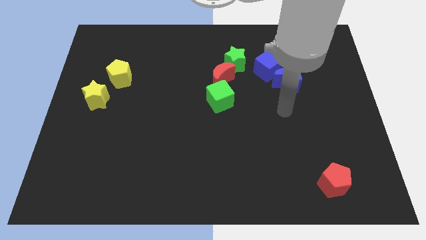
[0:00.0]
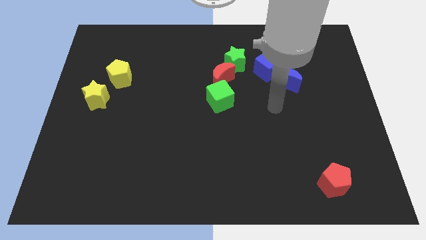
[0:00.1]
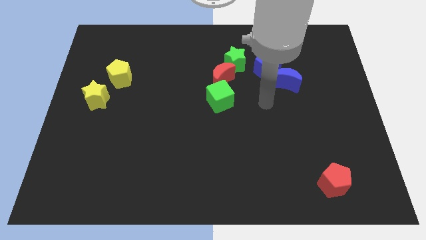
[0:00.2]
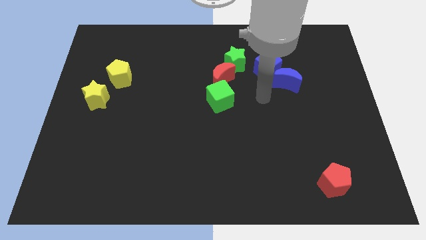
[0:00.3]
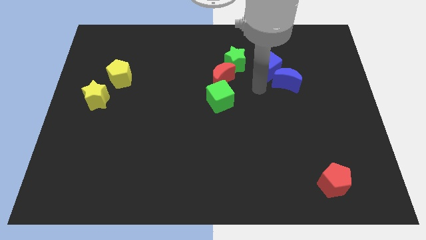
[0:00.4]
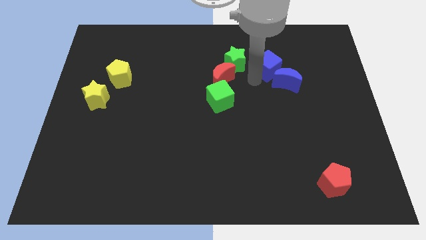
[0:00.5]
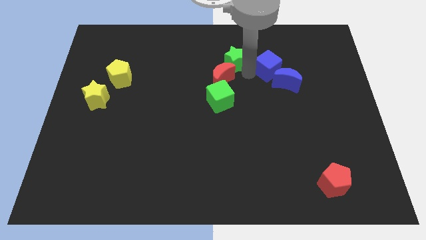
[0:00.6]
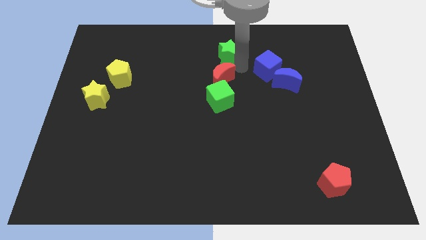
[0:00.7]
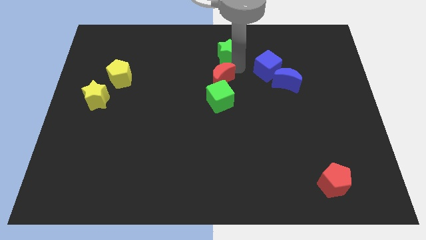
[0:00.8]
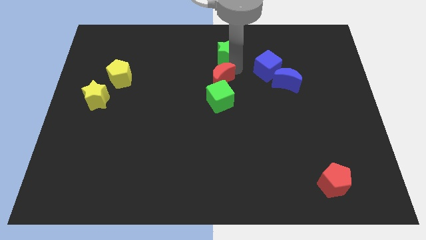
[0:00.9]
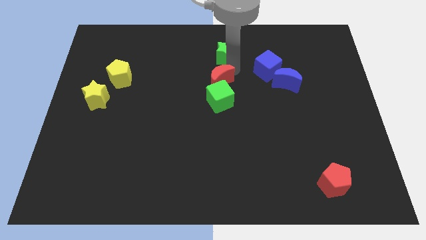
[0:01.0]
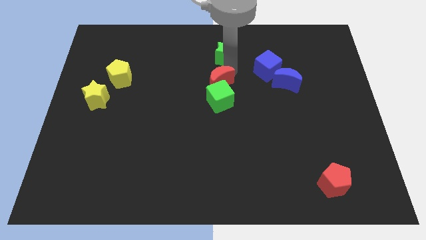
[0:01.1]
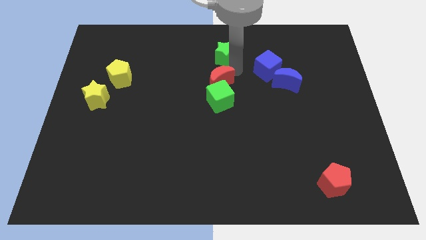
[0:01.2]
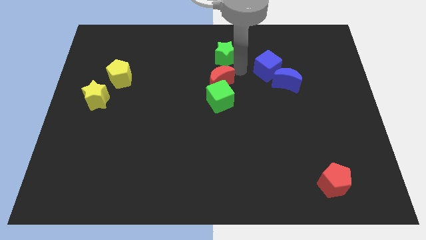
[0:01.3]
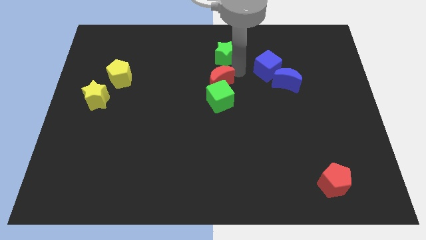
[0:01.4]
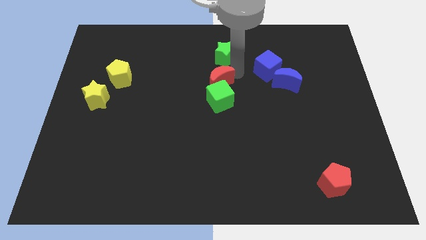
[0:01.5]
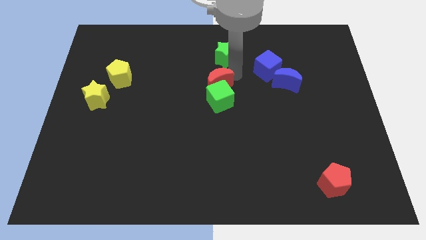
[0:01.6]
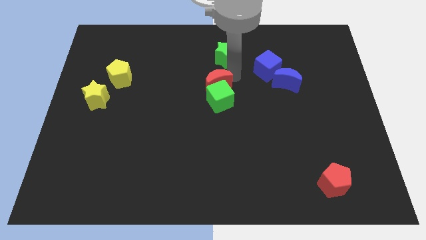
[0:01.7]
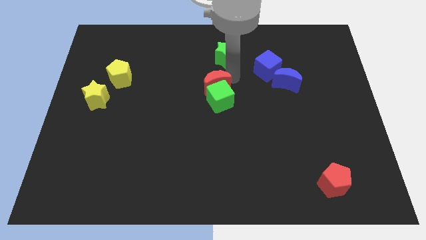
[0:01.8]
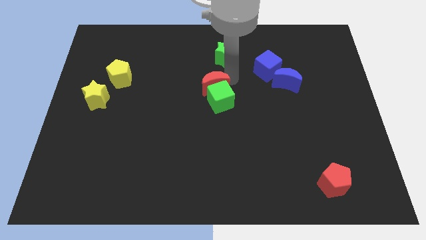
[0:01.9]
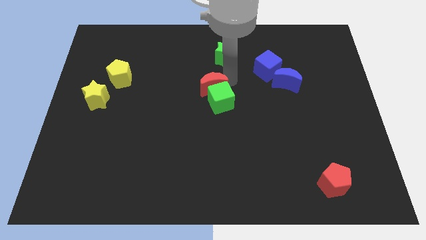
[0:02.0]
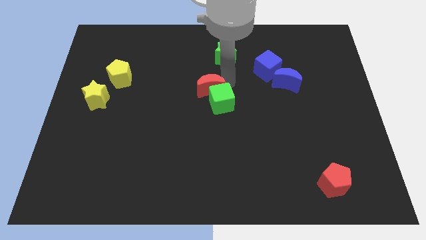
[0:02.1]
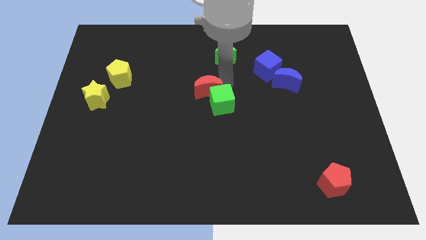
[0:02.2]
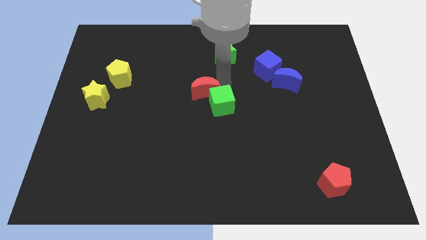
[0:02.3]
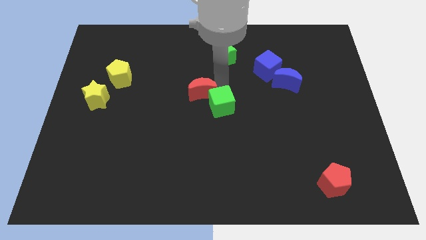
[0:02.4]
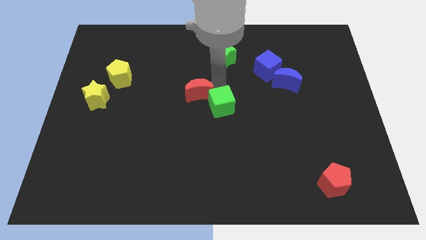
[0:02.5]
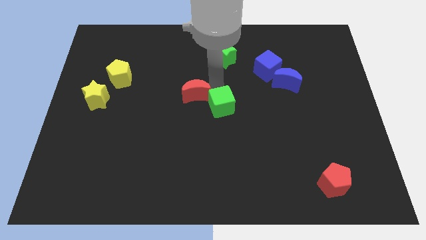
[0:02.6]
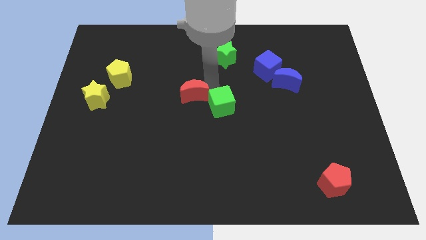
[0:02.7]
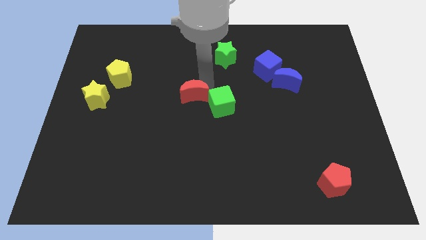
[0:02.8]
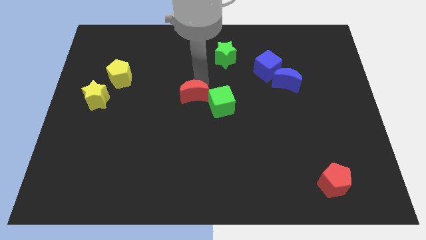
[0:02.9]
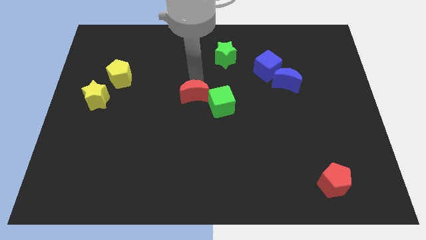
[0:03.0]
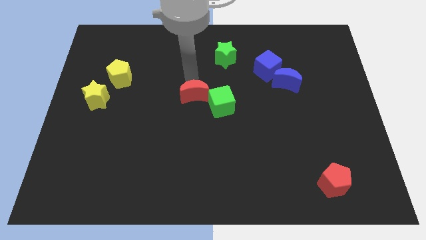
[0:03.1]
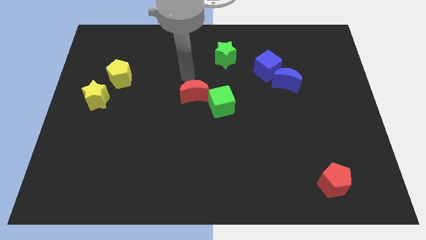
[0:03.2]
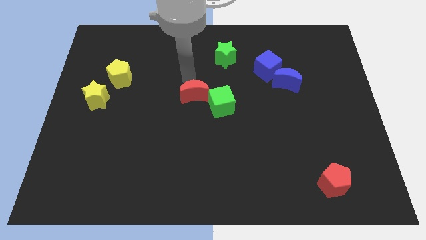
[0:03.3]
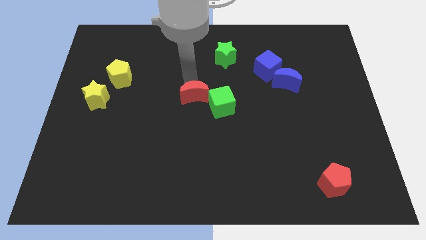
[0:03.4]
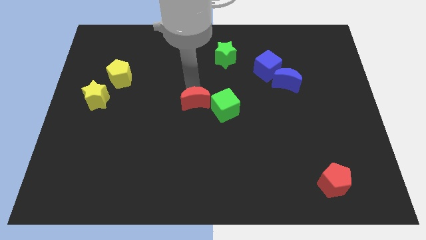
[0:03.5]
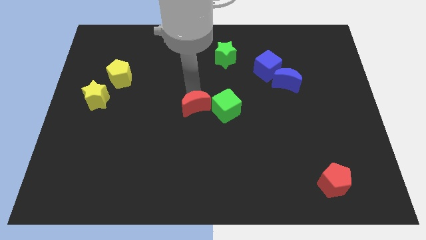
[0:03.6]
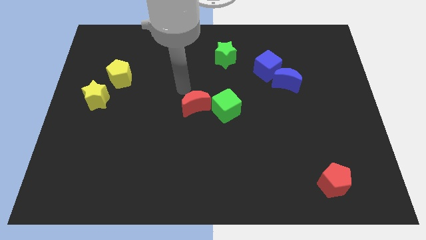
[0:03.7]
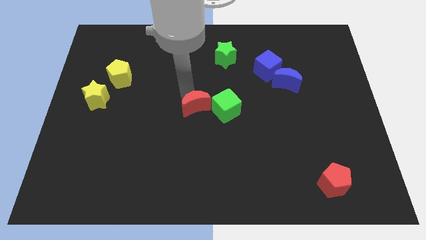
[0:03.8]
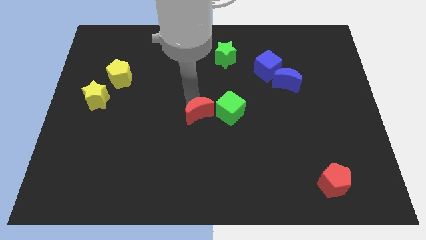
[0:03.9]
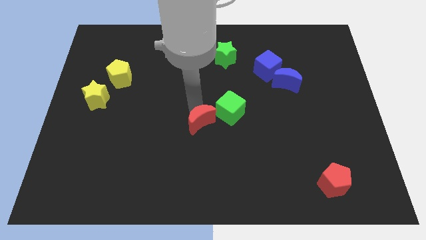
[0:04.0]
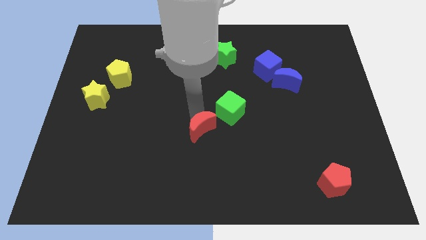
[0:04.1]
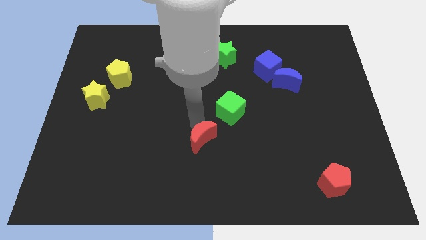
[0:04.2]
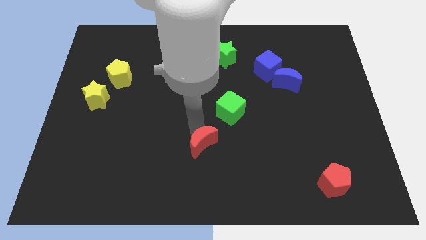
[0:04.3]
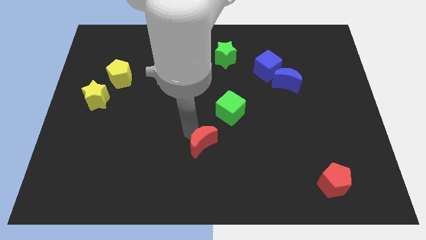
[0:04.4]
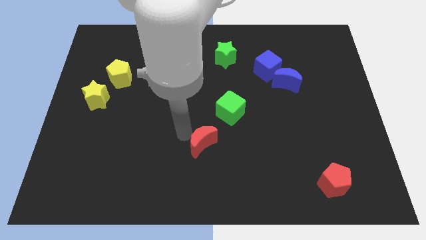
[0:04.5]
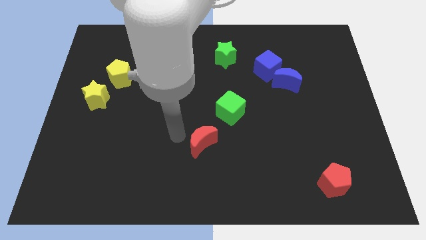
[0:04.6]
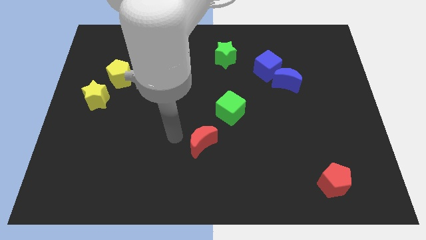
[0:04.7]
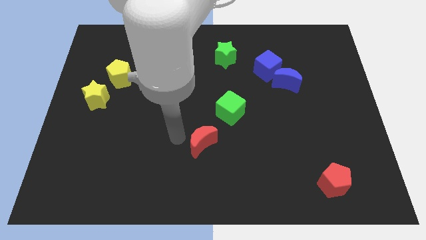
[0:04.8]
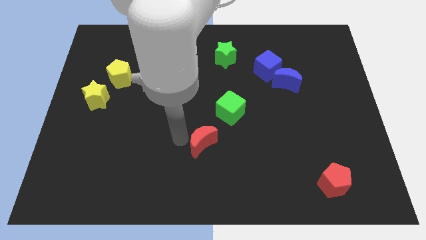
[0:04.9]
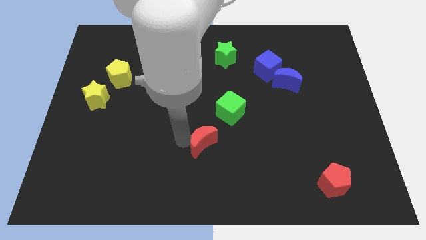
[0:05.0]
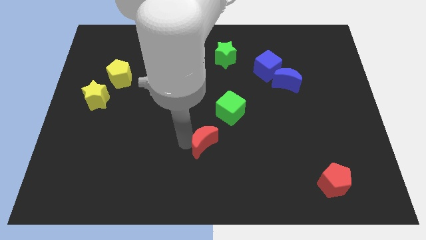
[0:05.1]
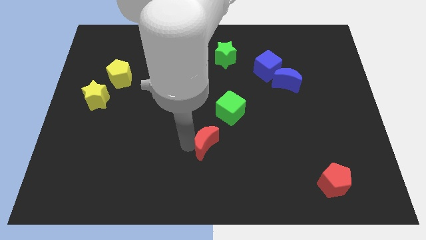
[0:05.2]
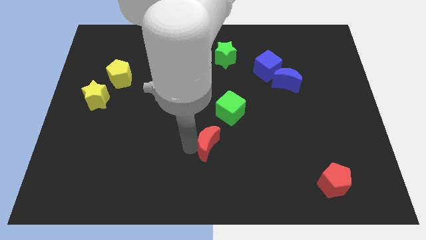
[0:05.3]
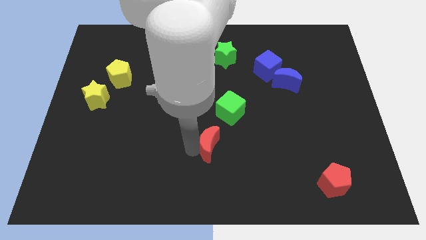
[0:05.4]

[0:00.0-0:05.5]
slide the red moon below the green cube

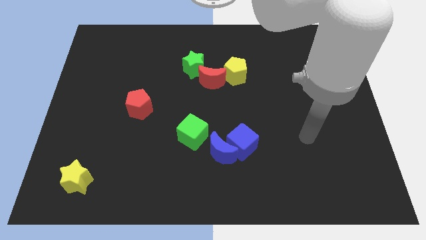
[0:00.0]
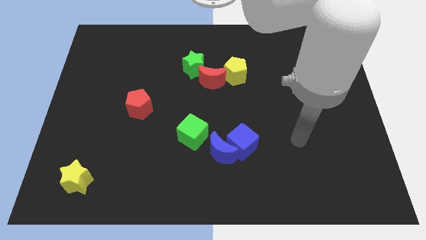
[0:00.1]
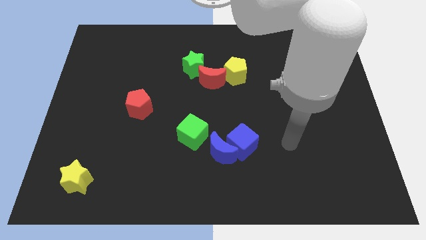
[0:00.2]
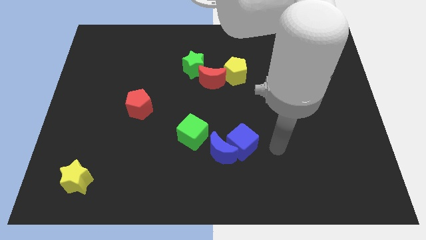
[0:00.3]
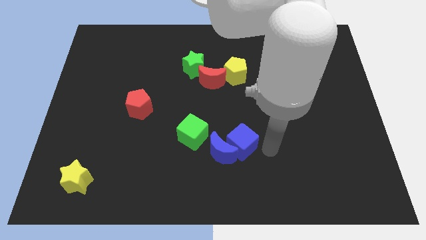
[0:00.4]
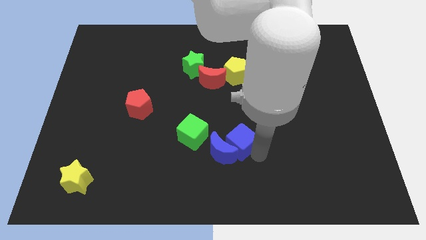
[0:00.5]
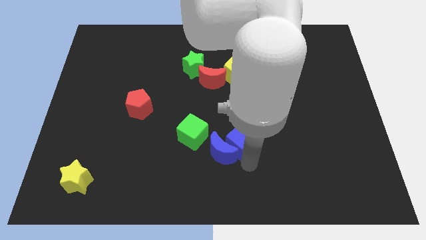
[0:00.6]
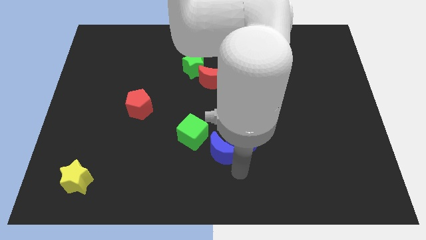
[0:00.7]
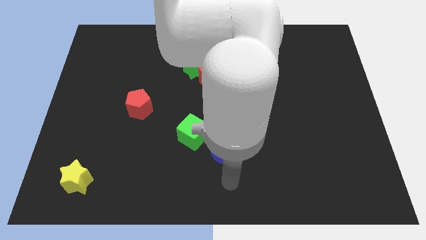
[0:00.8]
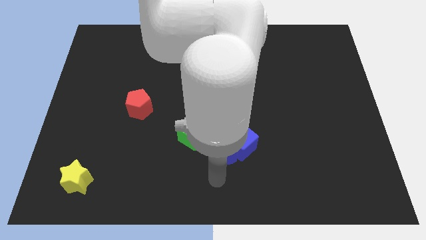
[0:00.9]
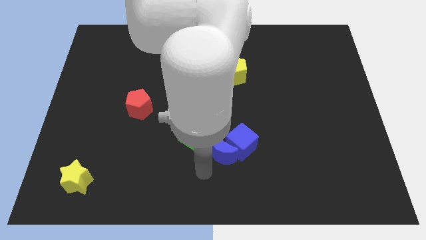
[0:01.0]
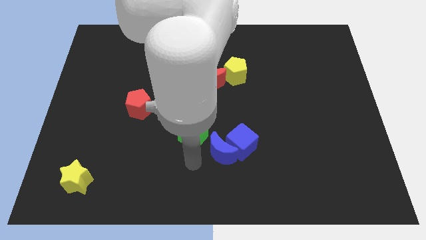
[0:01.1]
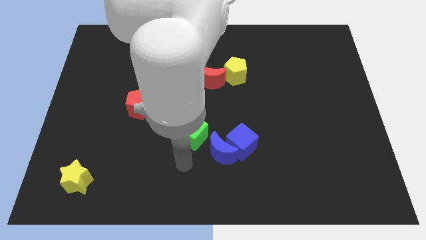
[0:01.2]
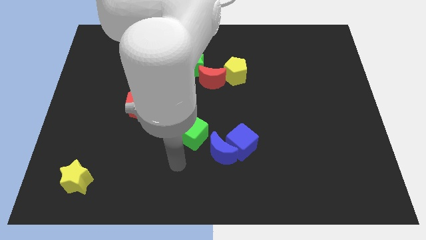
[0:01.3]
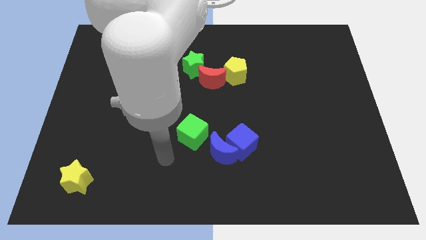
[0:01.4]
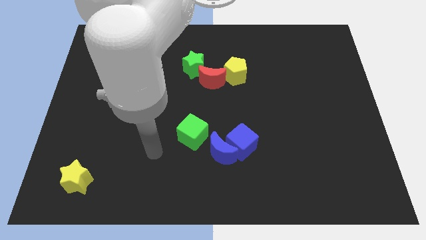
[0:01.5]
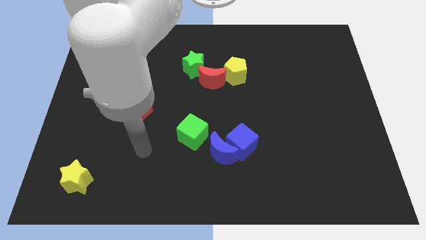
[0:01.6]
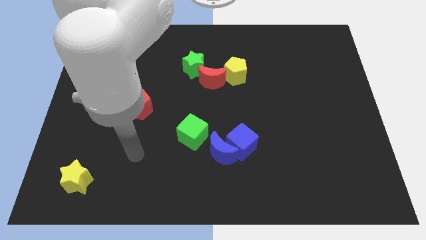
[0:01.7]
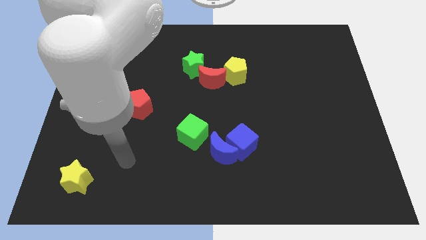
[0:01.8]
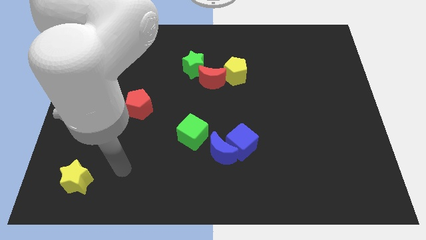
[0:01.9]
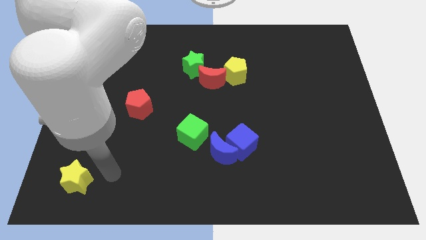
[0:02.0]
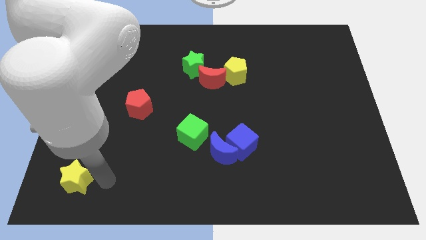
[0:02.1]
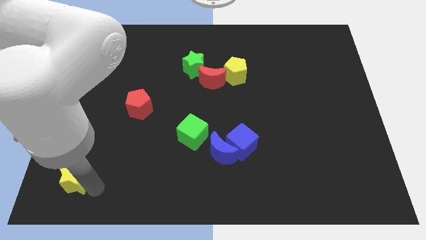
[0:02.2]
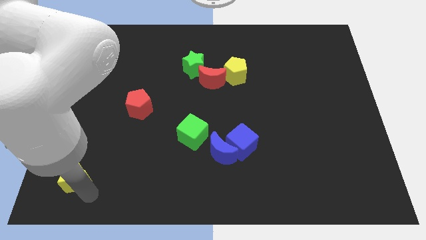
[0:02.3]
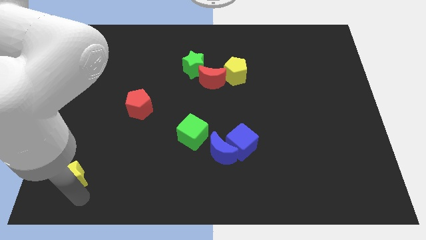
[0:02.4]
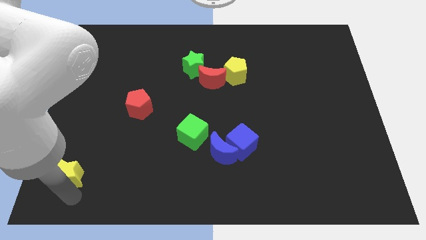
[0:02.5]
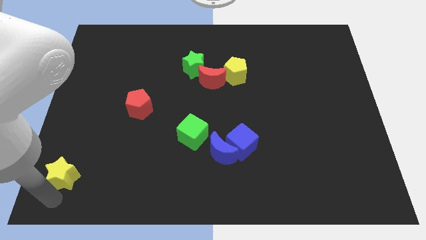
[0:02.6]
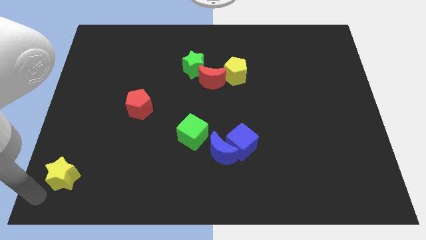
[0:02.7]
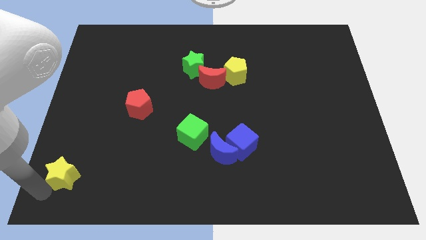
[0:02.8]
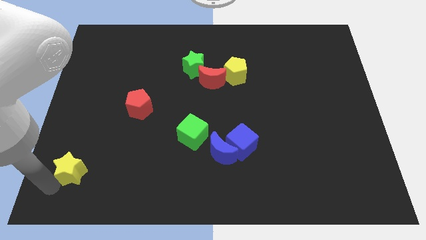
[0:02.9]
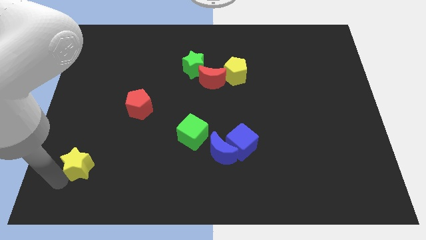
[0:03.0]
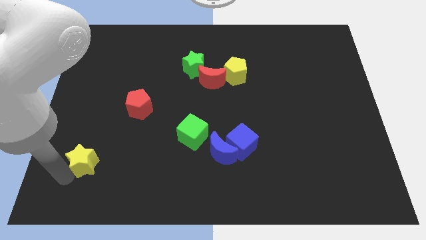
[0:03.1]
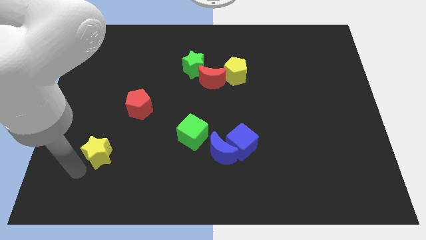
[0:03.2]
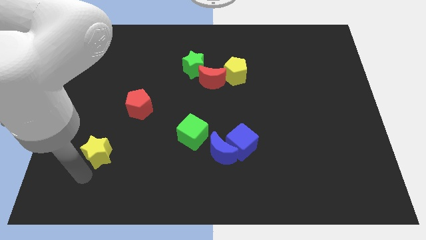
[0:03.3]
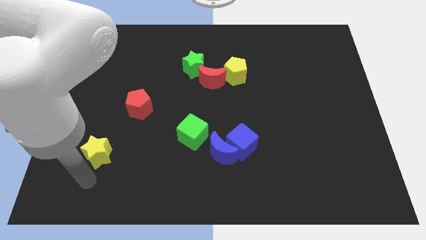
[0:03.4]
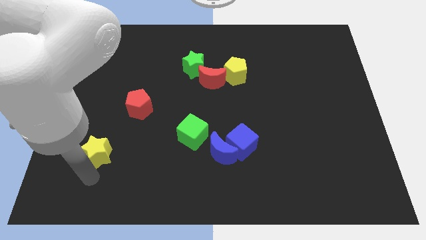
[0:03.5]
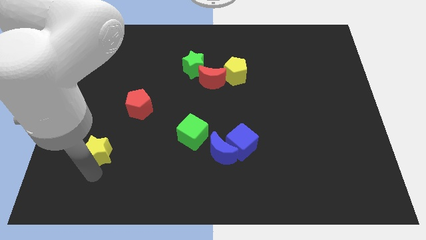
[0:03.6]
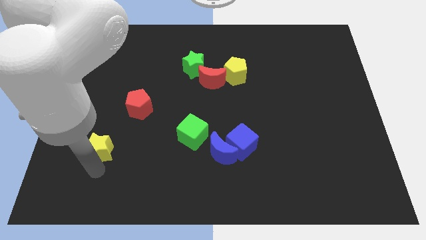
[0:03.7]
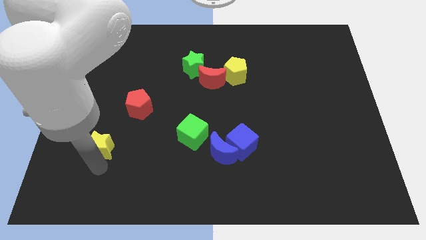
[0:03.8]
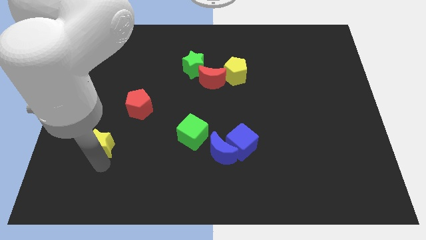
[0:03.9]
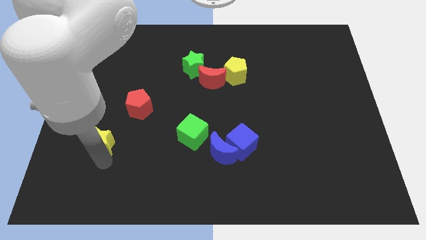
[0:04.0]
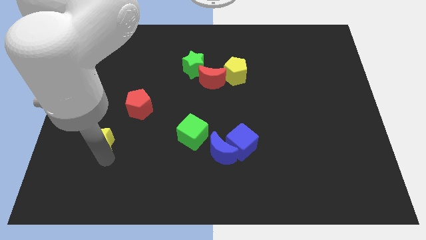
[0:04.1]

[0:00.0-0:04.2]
slide the yellow star to the bottom left of the red pentagon
